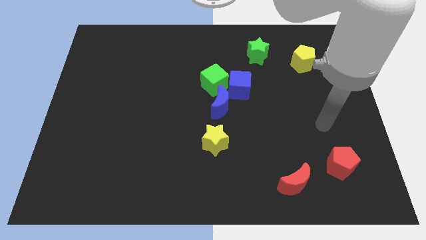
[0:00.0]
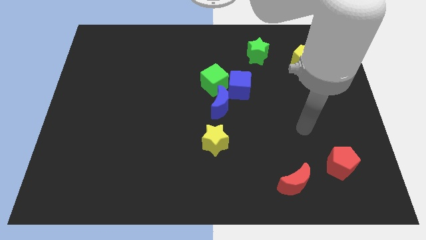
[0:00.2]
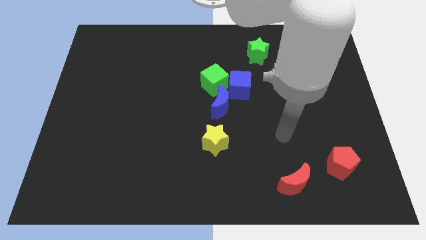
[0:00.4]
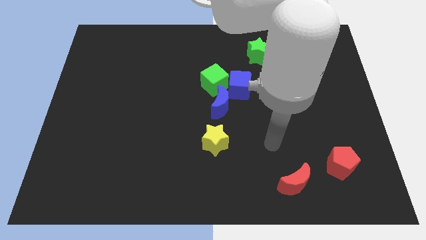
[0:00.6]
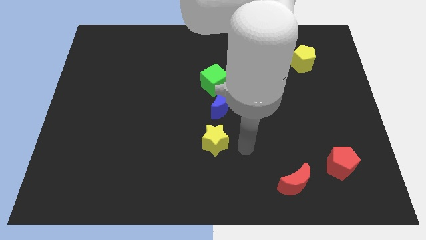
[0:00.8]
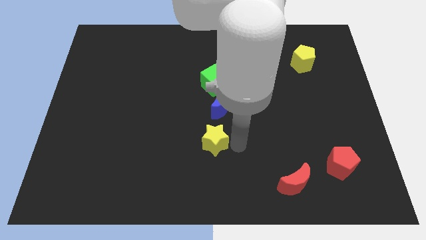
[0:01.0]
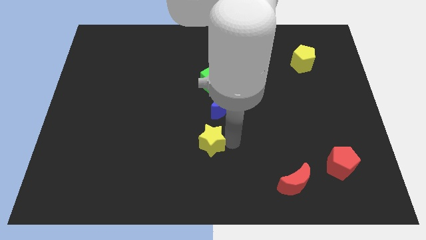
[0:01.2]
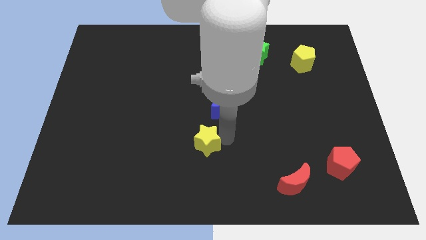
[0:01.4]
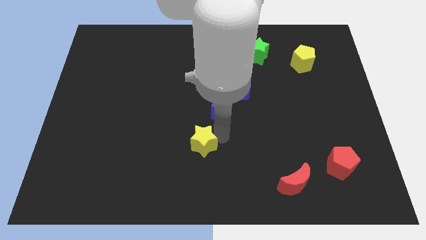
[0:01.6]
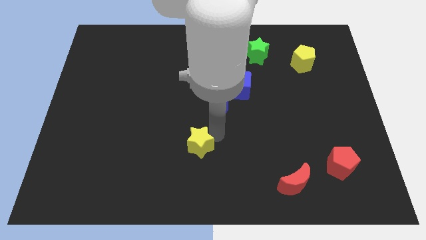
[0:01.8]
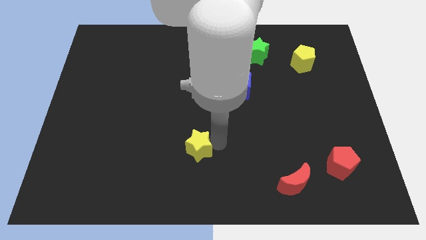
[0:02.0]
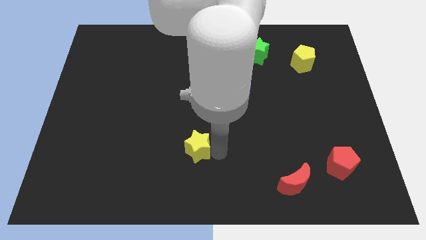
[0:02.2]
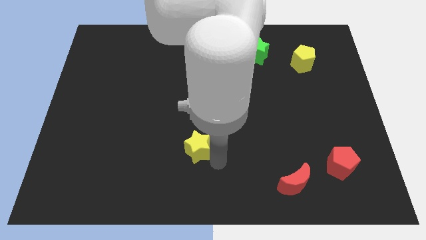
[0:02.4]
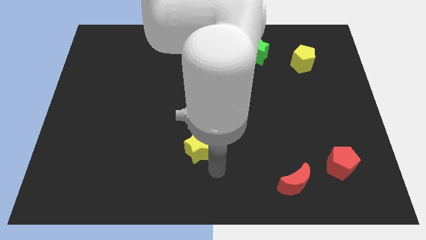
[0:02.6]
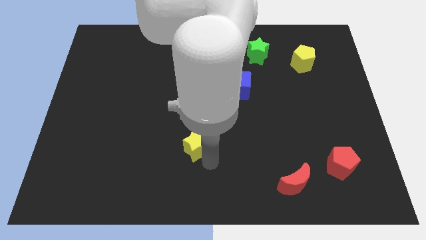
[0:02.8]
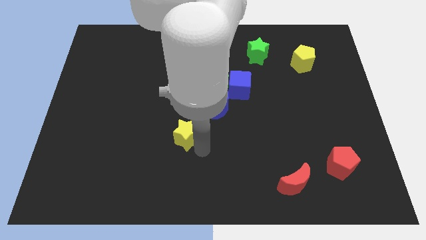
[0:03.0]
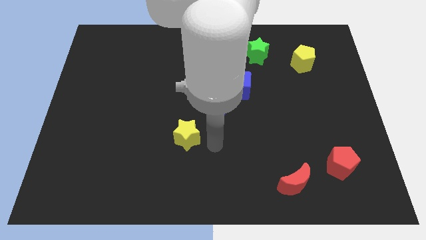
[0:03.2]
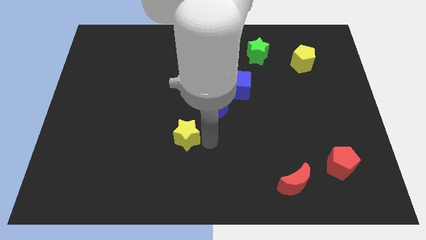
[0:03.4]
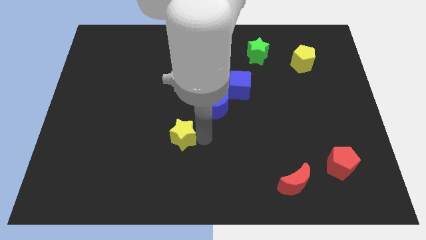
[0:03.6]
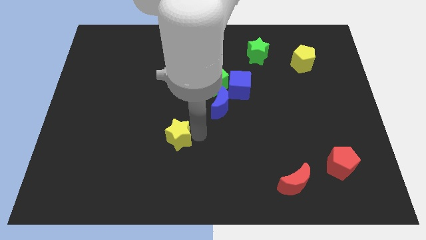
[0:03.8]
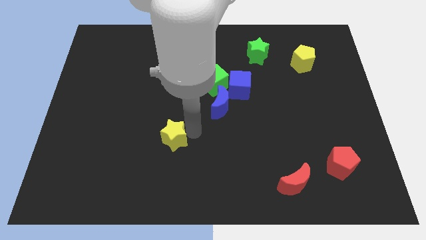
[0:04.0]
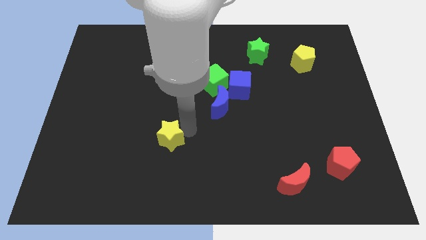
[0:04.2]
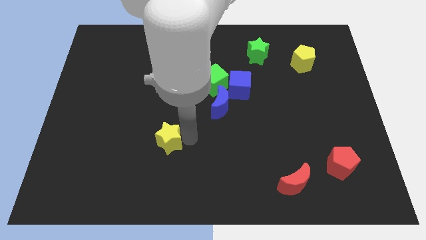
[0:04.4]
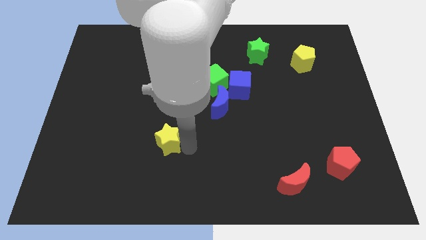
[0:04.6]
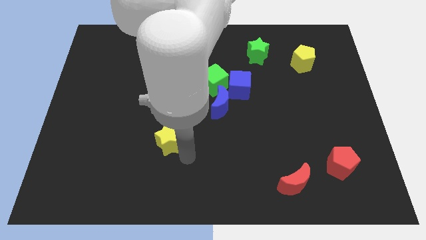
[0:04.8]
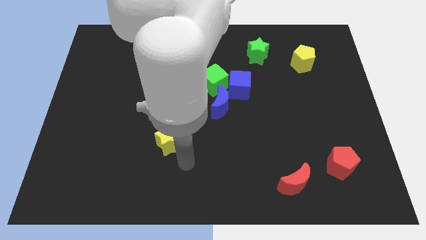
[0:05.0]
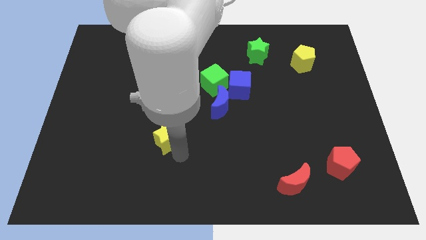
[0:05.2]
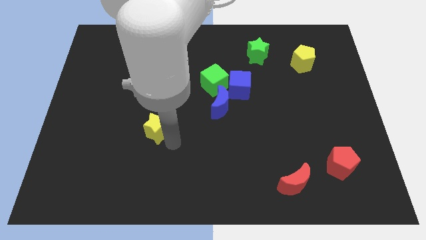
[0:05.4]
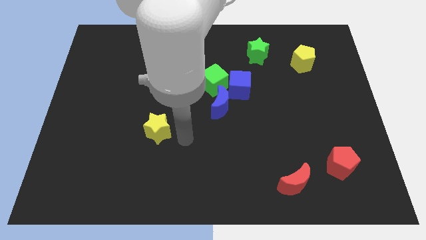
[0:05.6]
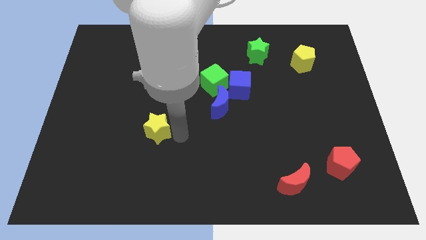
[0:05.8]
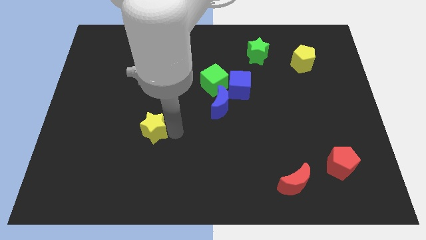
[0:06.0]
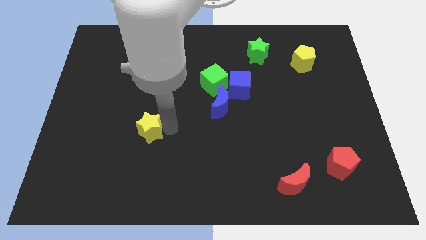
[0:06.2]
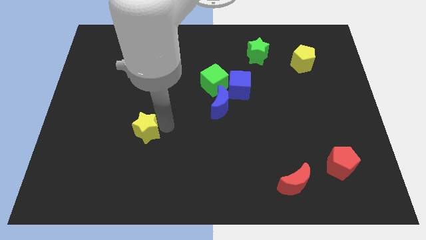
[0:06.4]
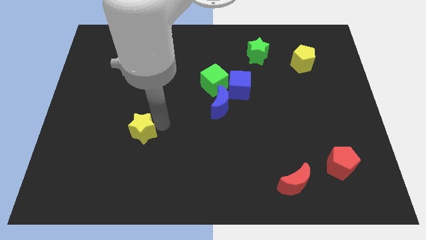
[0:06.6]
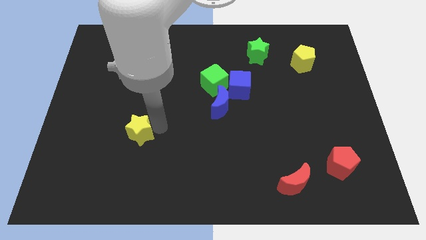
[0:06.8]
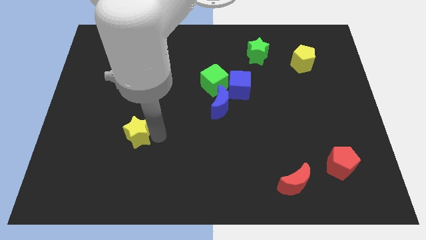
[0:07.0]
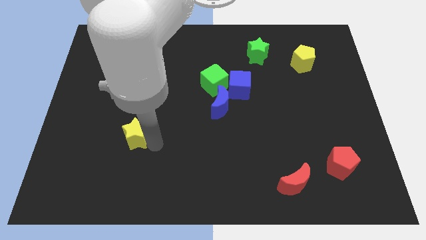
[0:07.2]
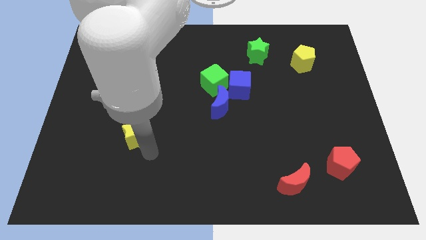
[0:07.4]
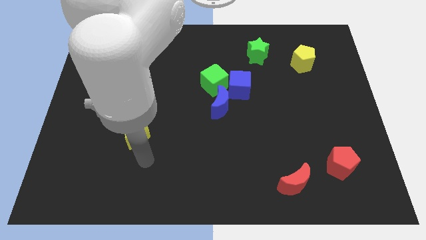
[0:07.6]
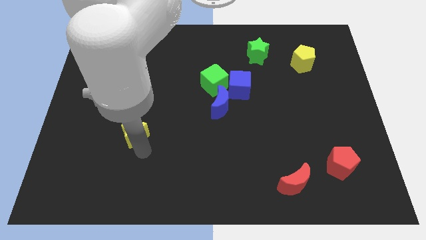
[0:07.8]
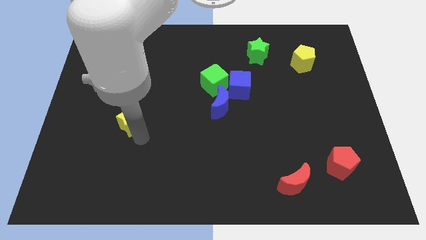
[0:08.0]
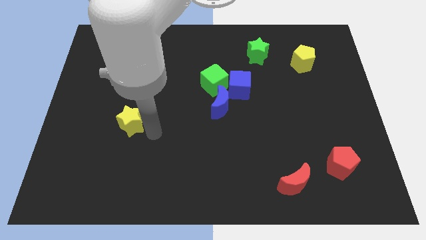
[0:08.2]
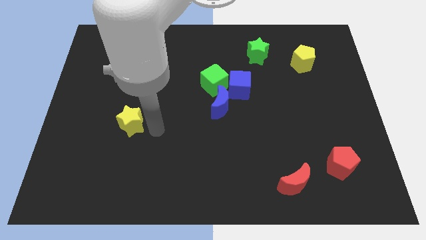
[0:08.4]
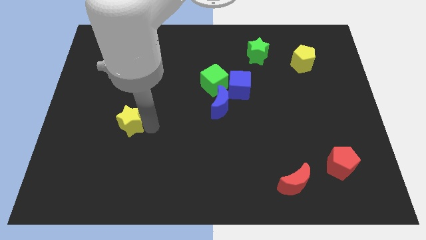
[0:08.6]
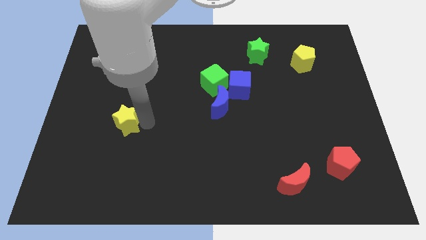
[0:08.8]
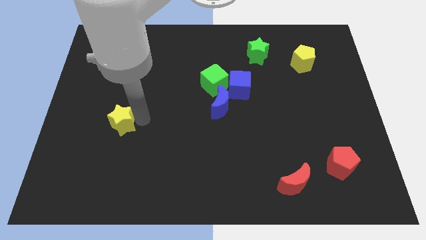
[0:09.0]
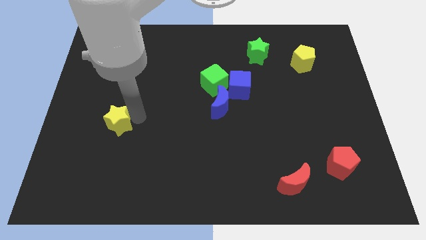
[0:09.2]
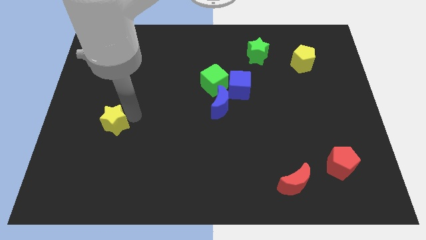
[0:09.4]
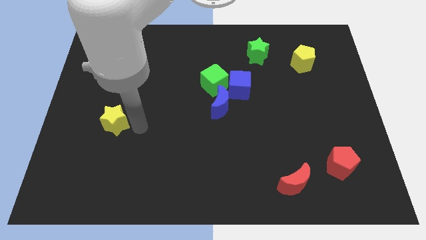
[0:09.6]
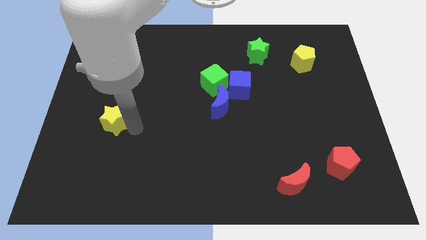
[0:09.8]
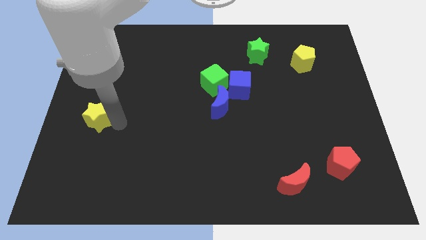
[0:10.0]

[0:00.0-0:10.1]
move the yellow star to the center left
